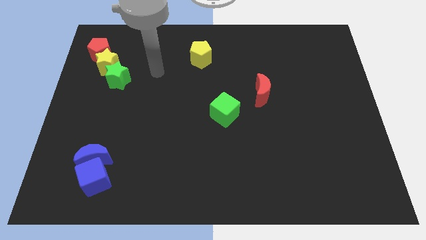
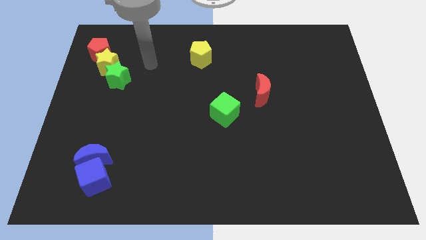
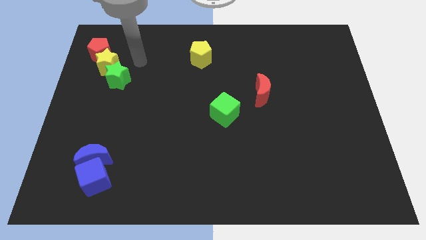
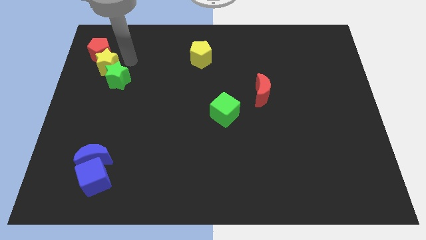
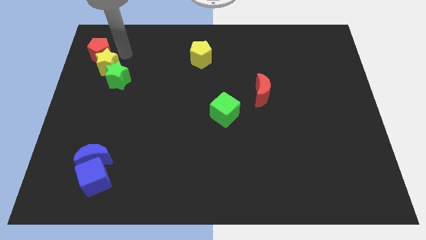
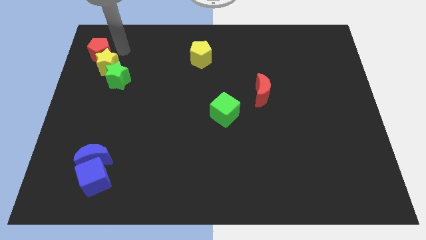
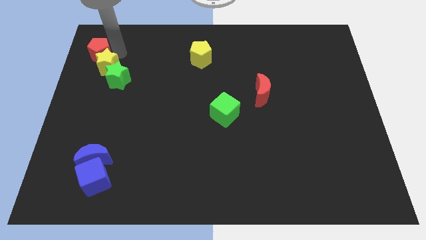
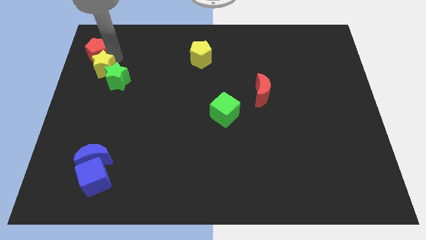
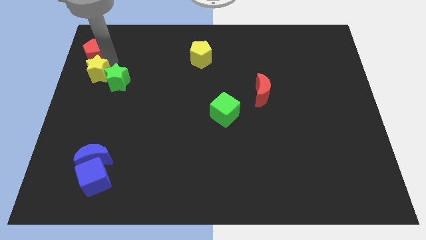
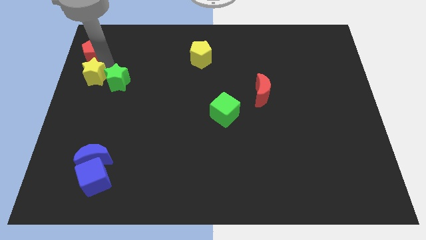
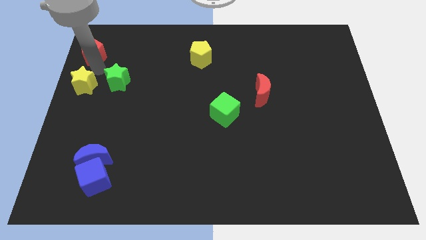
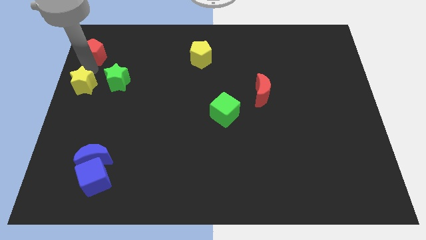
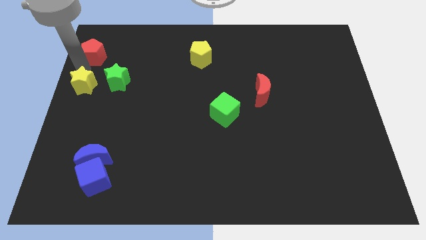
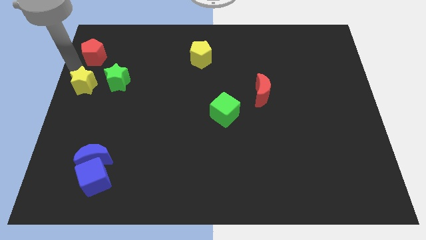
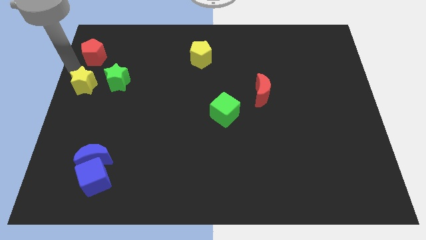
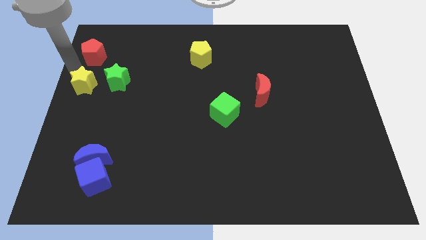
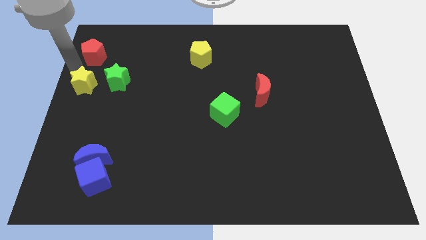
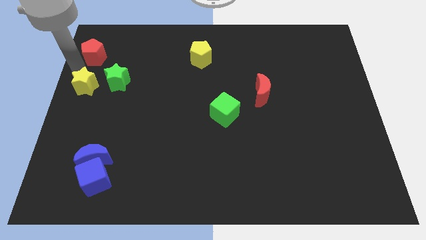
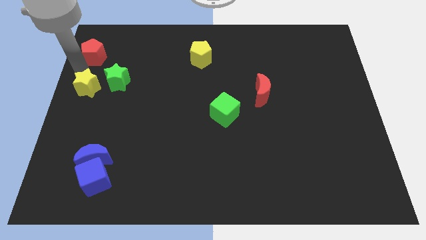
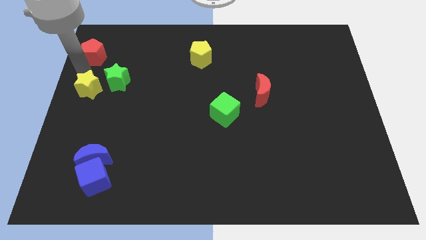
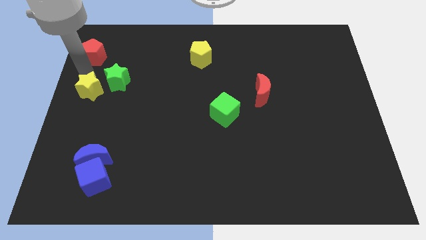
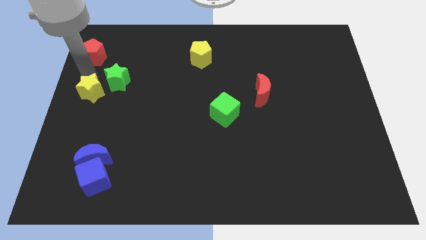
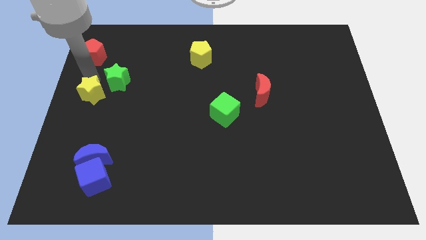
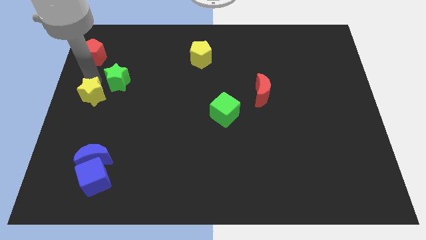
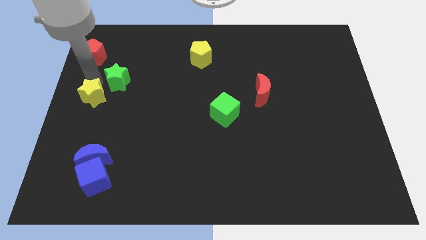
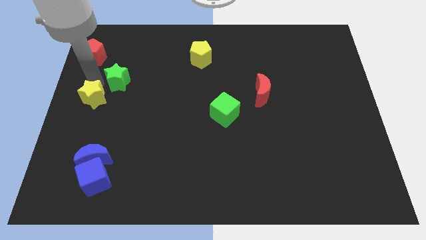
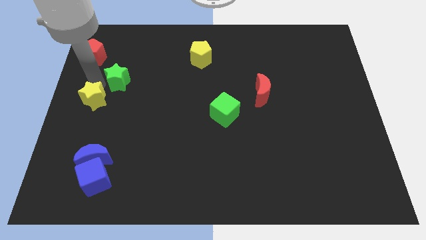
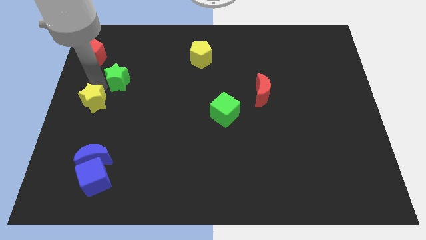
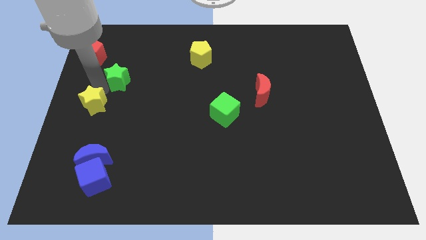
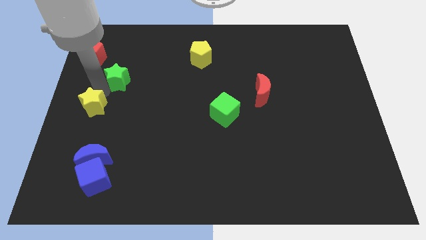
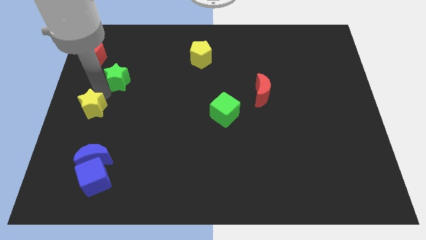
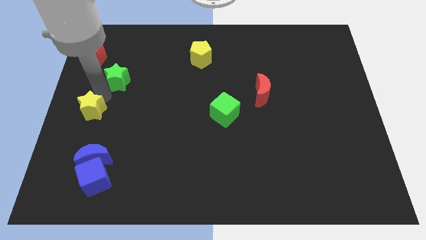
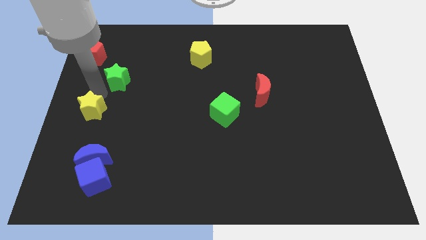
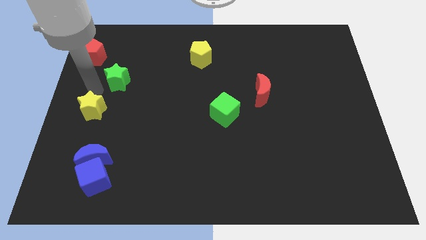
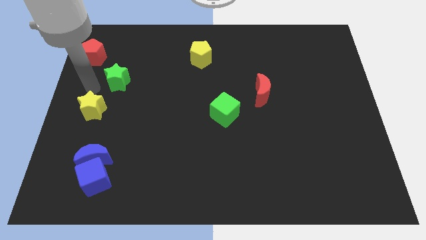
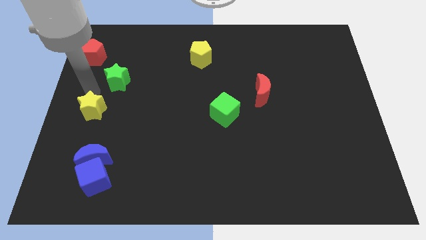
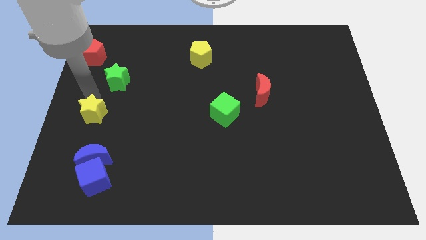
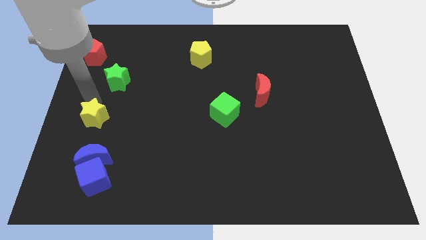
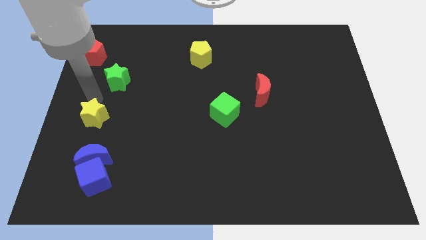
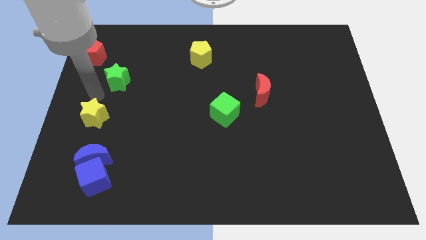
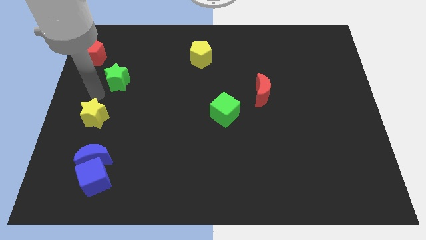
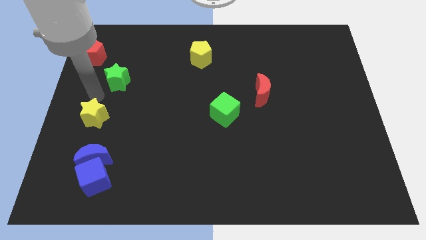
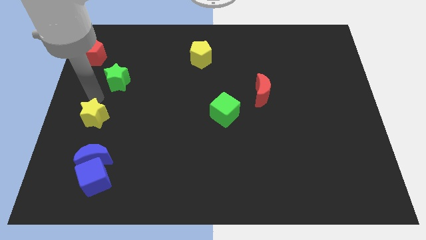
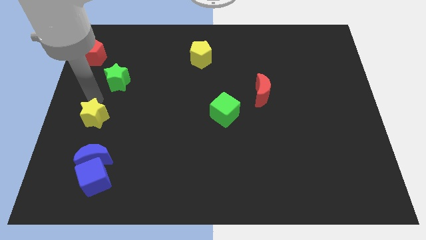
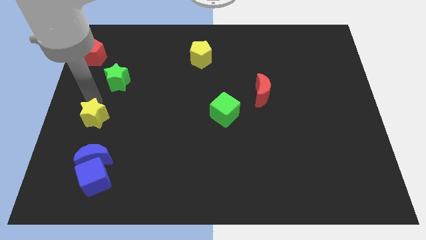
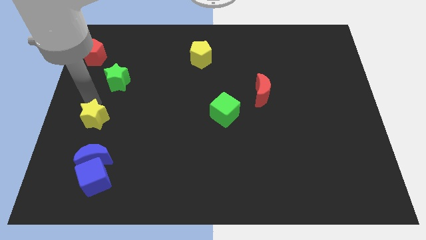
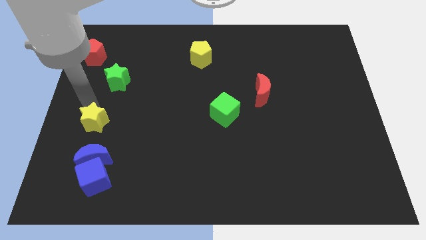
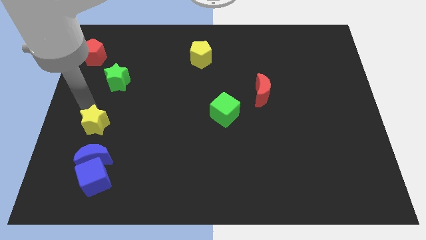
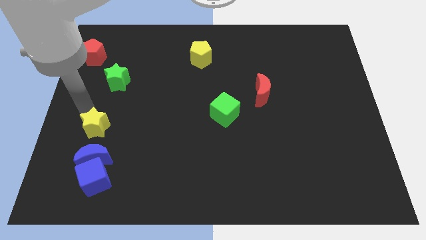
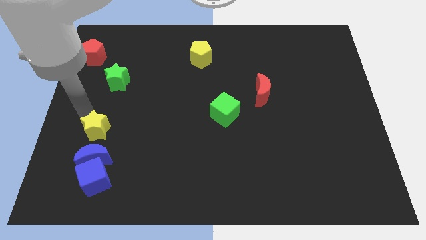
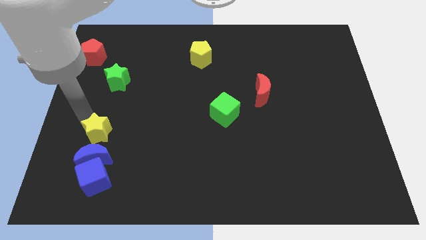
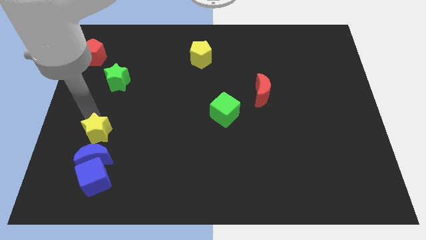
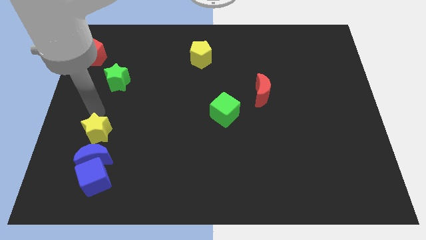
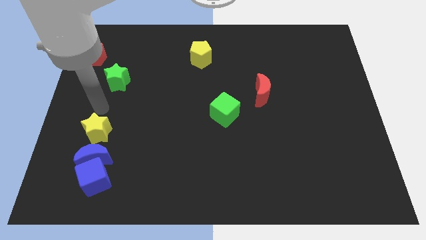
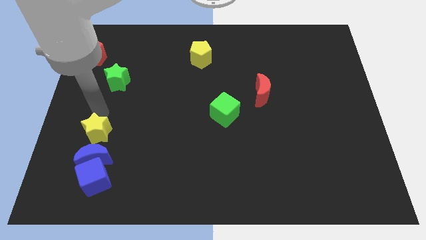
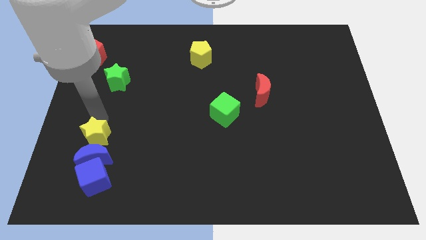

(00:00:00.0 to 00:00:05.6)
move the yellow star next to the blue moon
